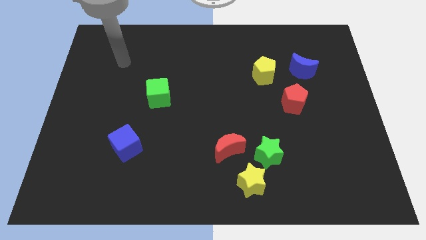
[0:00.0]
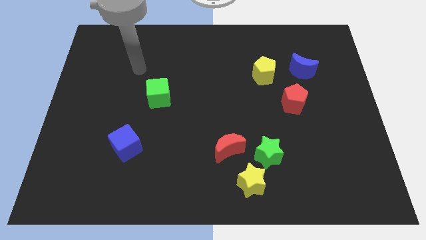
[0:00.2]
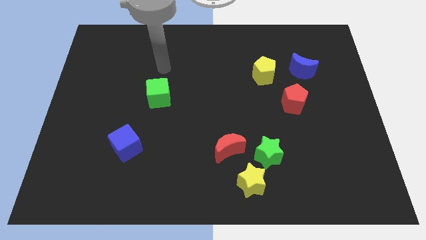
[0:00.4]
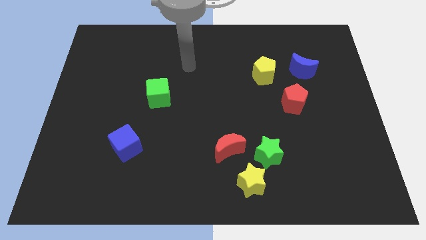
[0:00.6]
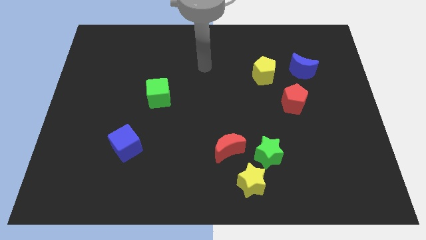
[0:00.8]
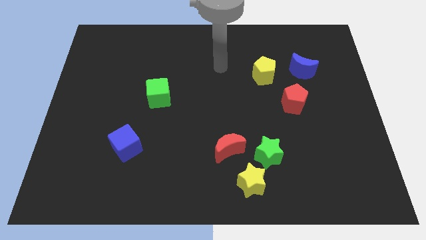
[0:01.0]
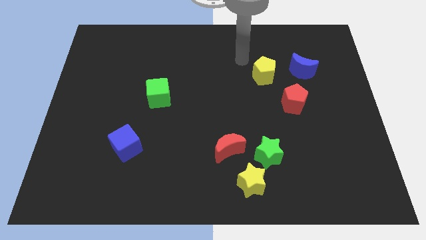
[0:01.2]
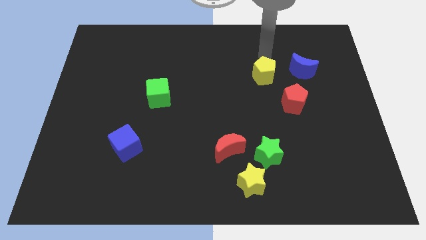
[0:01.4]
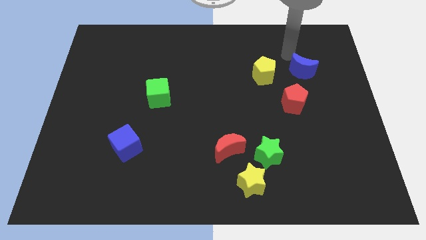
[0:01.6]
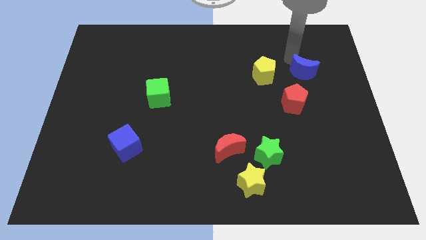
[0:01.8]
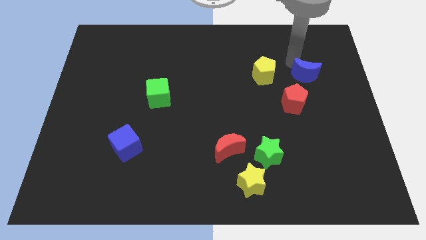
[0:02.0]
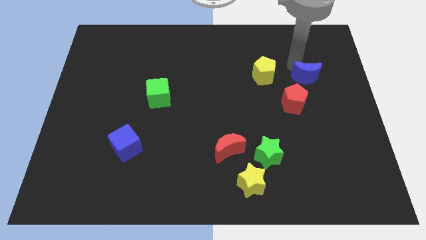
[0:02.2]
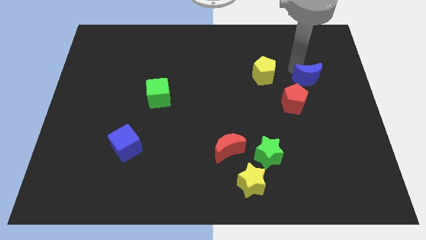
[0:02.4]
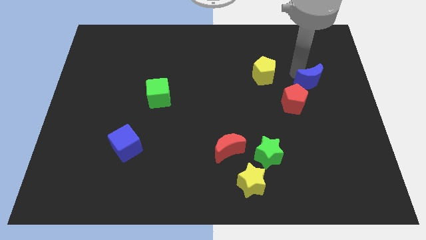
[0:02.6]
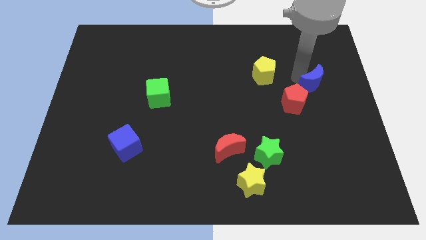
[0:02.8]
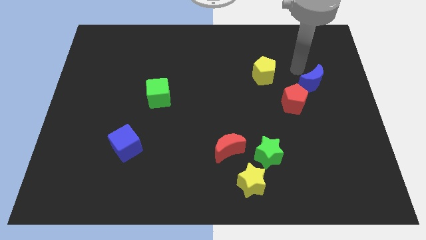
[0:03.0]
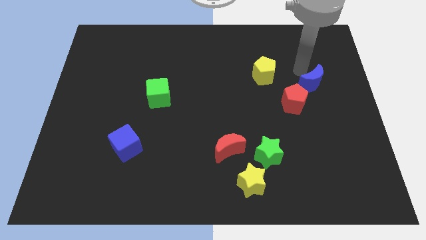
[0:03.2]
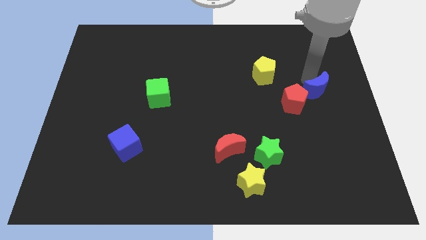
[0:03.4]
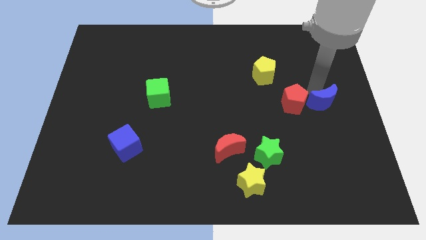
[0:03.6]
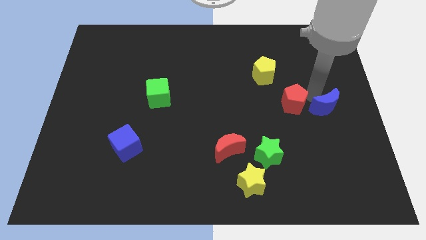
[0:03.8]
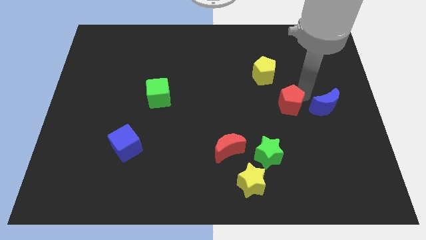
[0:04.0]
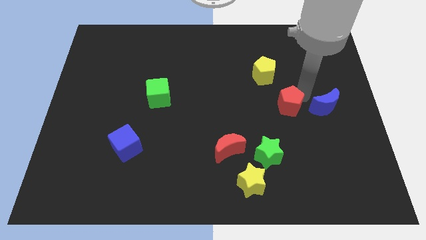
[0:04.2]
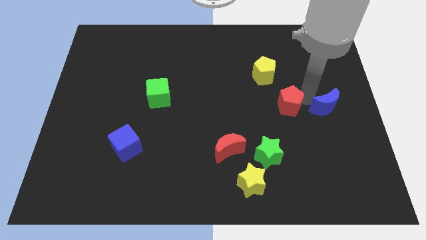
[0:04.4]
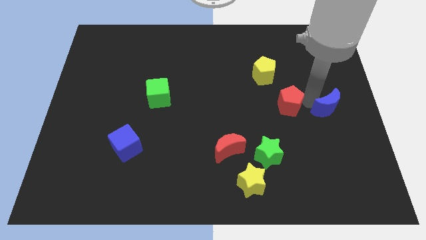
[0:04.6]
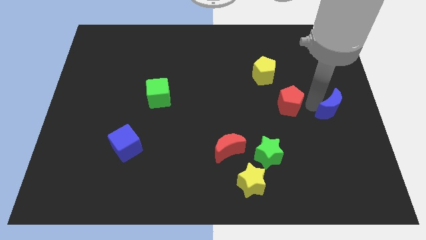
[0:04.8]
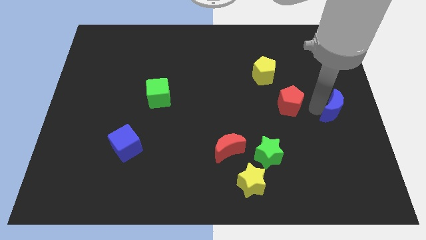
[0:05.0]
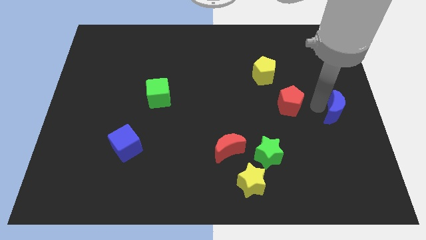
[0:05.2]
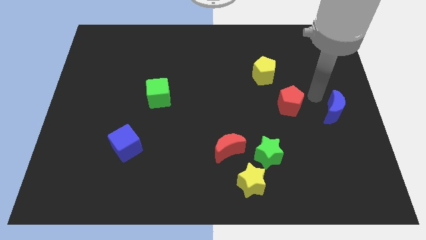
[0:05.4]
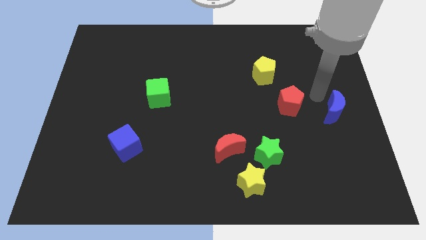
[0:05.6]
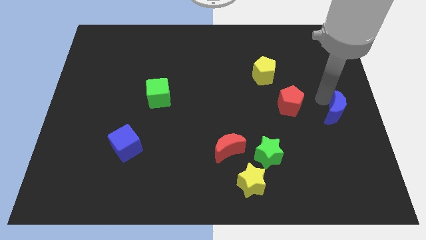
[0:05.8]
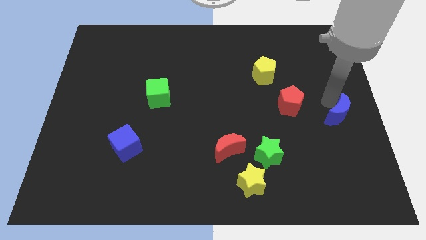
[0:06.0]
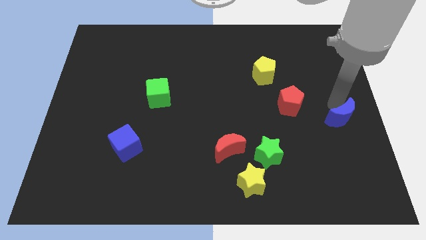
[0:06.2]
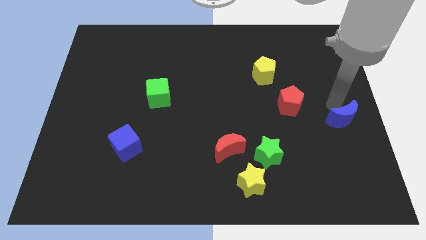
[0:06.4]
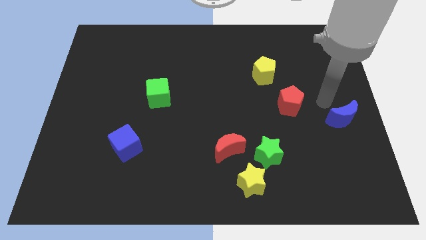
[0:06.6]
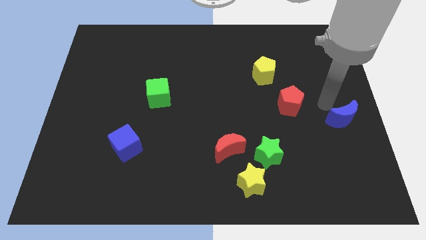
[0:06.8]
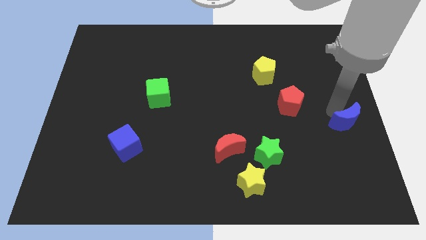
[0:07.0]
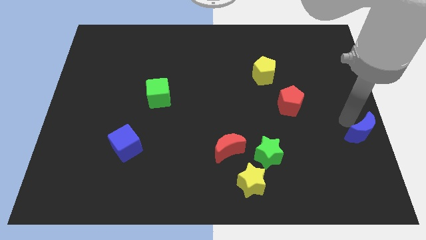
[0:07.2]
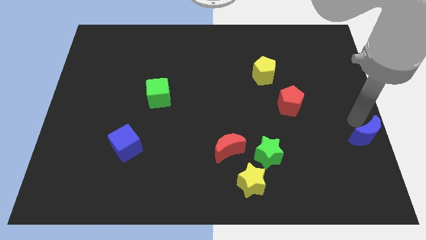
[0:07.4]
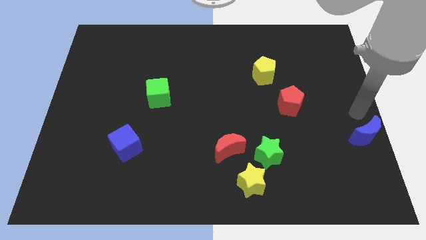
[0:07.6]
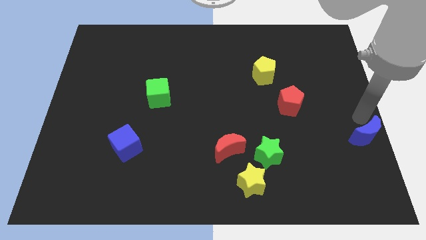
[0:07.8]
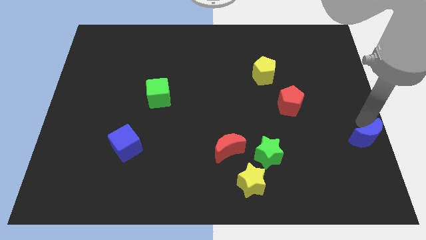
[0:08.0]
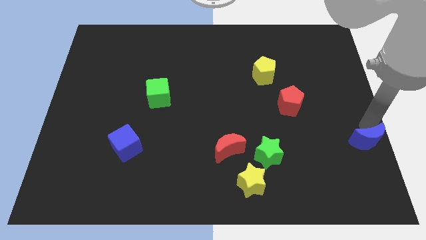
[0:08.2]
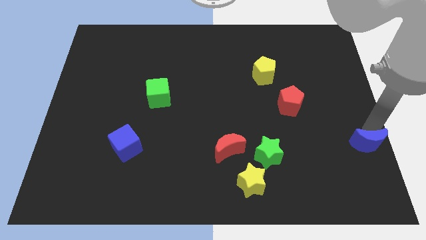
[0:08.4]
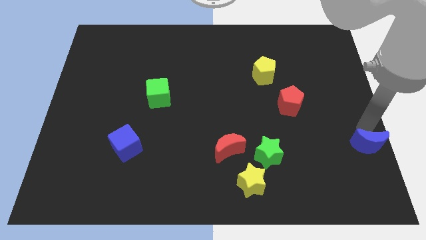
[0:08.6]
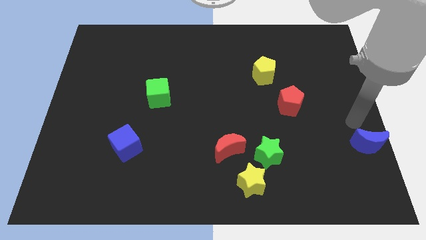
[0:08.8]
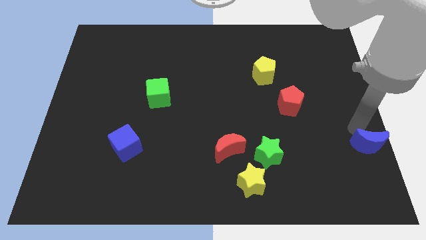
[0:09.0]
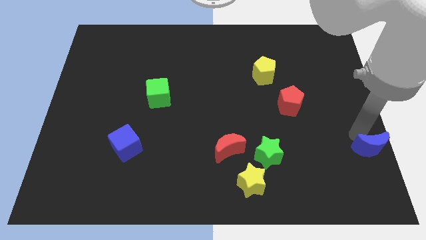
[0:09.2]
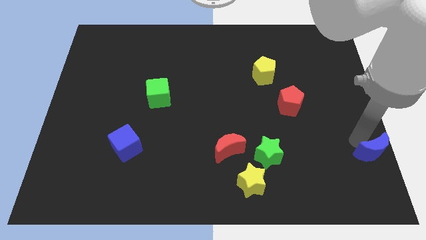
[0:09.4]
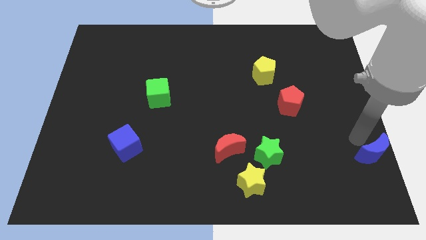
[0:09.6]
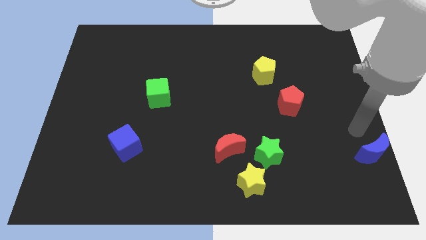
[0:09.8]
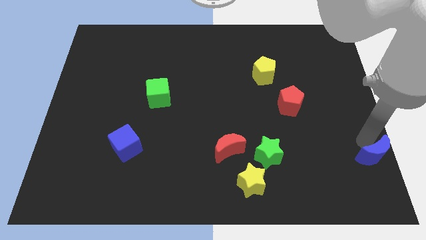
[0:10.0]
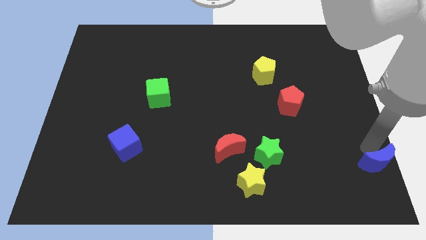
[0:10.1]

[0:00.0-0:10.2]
push the blue moon to the bottom right corner
